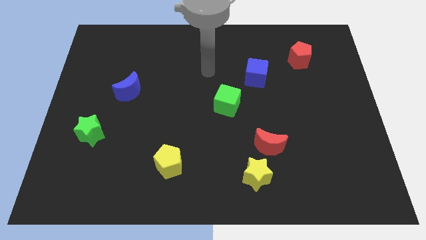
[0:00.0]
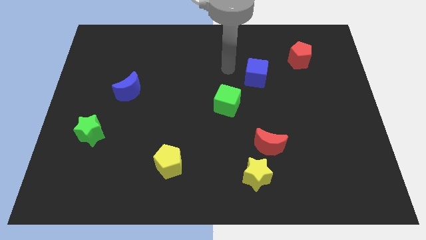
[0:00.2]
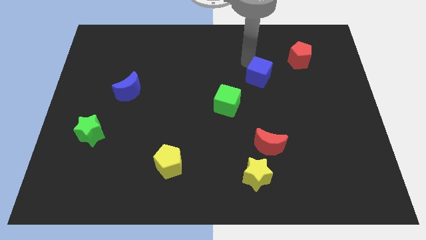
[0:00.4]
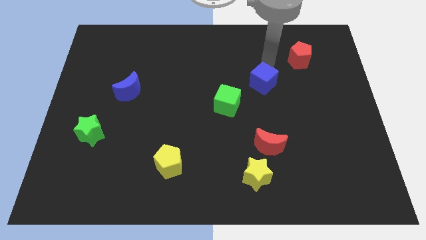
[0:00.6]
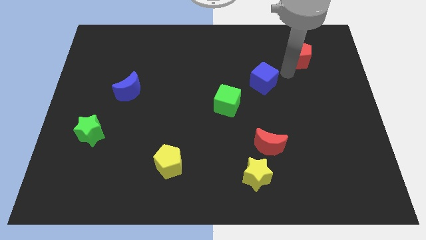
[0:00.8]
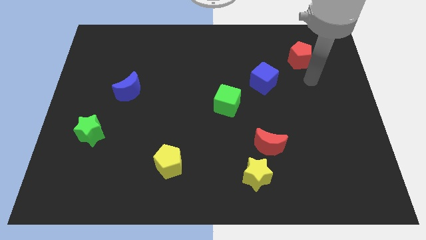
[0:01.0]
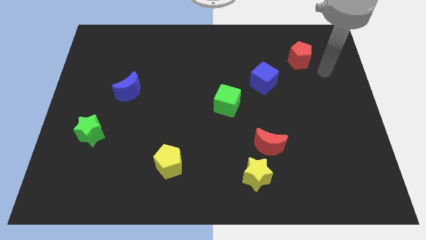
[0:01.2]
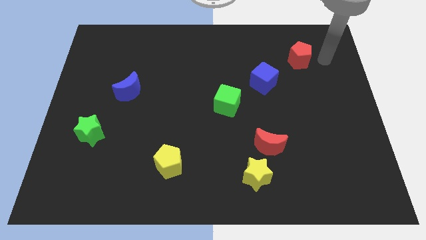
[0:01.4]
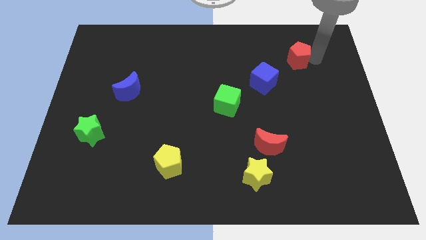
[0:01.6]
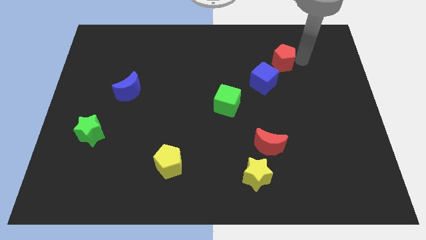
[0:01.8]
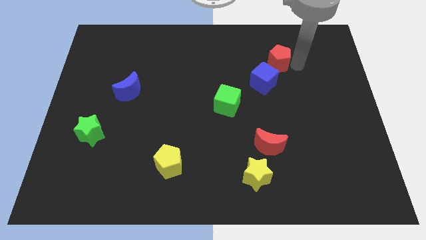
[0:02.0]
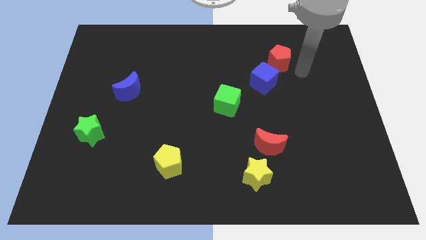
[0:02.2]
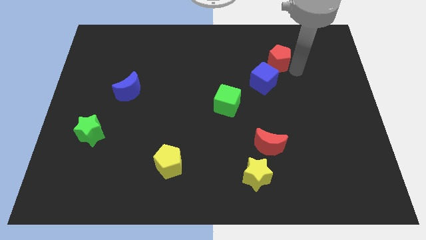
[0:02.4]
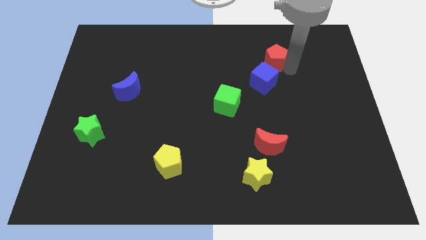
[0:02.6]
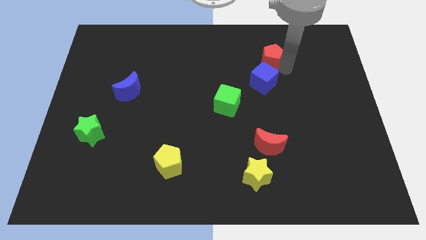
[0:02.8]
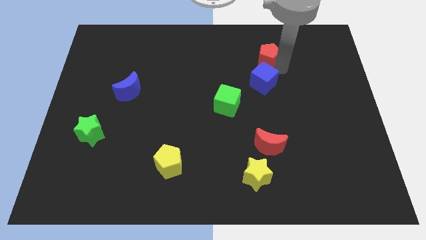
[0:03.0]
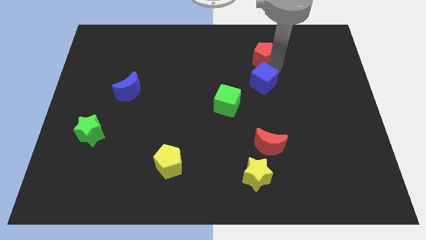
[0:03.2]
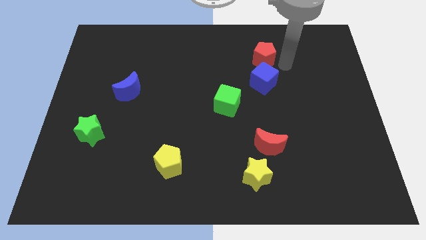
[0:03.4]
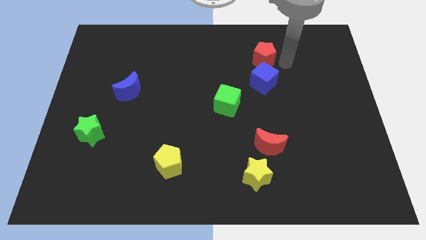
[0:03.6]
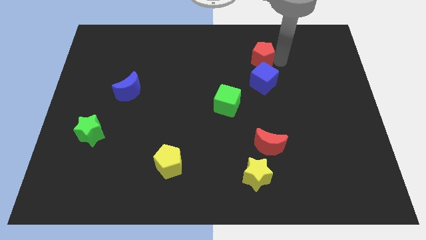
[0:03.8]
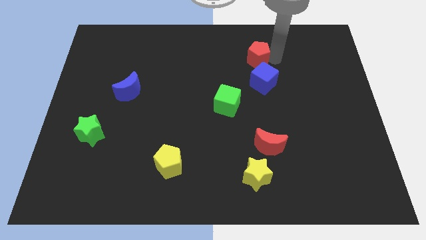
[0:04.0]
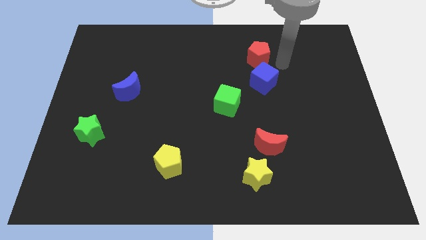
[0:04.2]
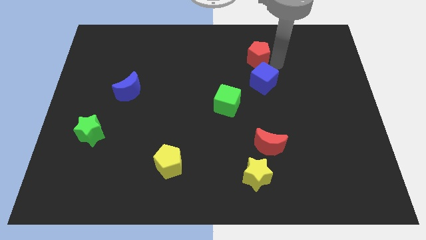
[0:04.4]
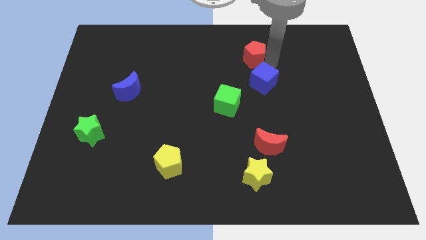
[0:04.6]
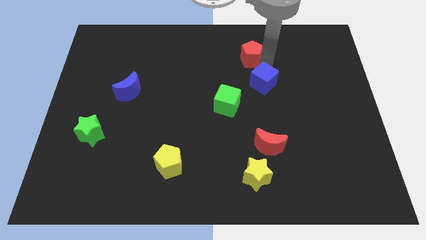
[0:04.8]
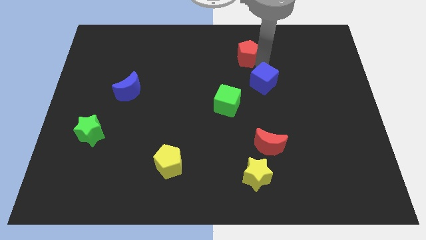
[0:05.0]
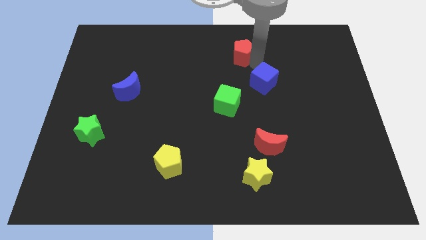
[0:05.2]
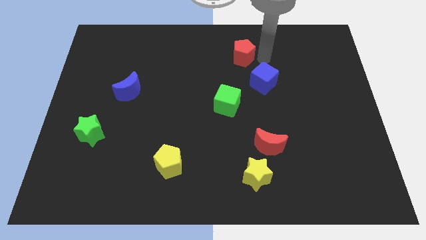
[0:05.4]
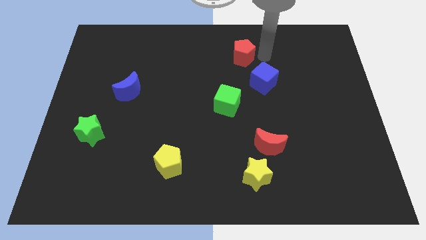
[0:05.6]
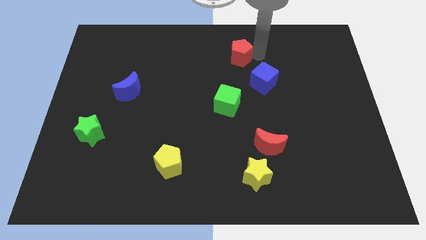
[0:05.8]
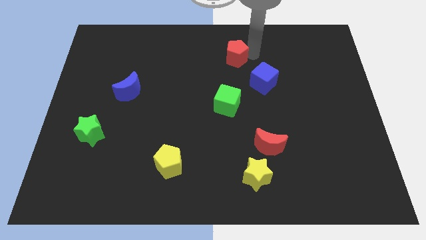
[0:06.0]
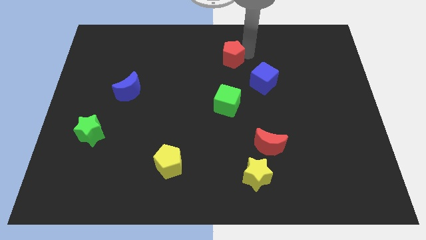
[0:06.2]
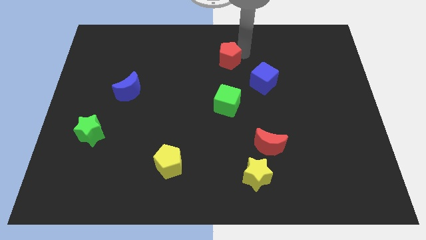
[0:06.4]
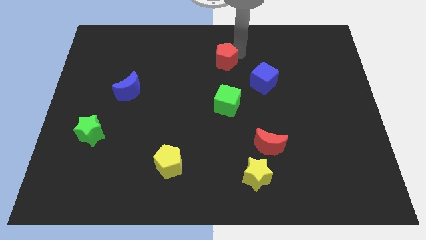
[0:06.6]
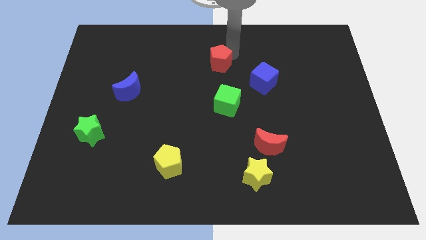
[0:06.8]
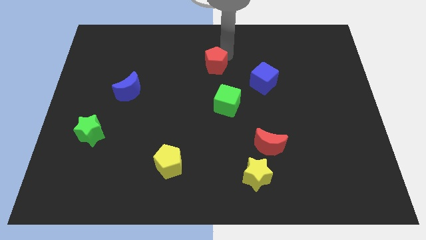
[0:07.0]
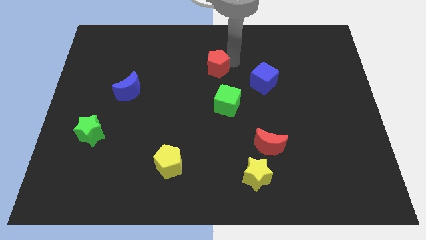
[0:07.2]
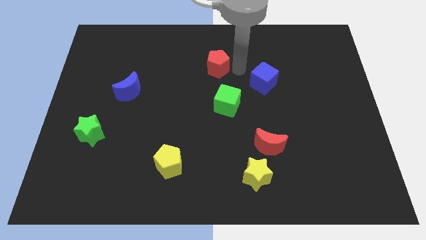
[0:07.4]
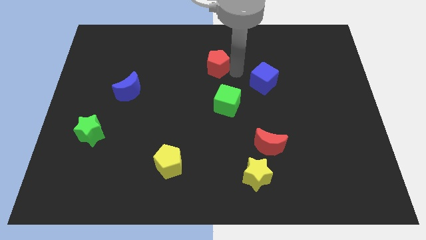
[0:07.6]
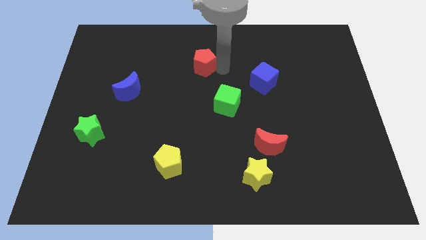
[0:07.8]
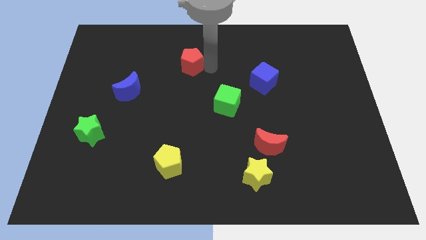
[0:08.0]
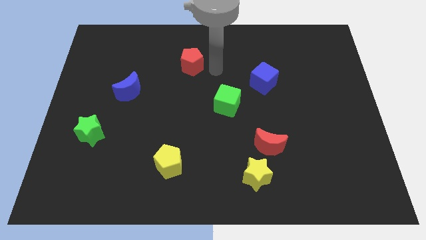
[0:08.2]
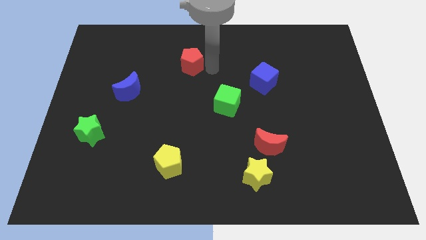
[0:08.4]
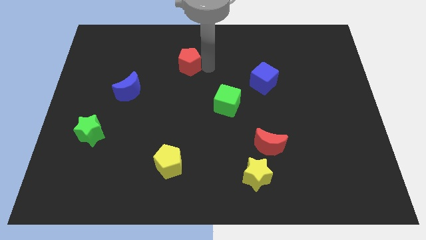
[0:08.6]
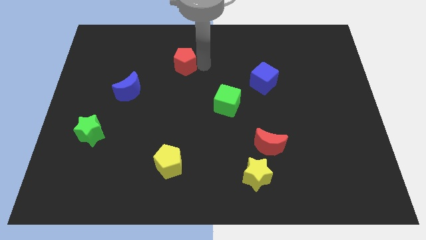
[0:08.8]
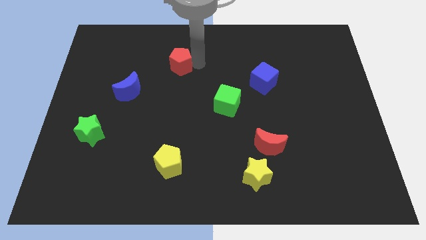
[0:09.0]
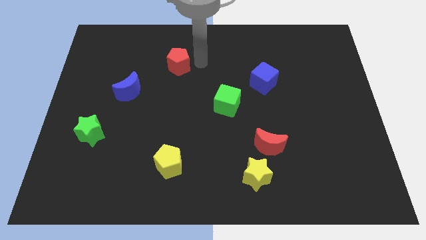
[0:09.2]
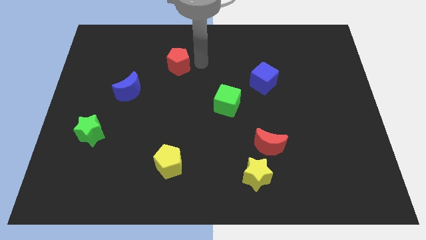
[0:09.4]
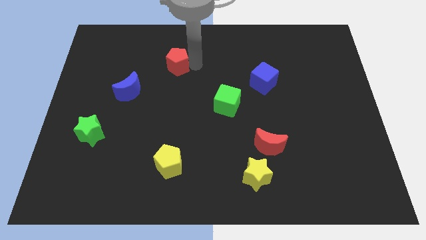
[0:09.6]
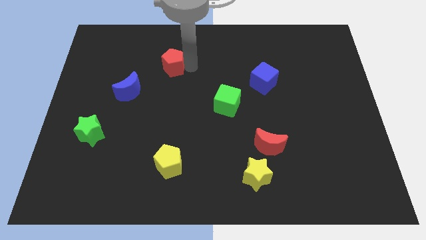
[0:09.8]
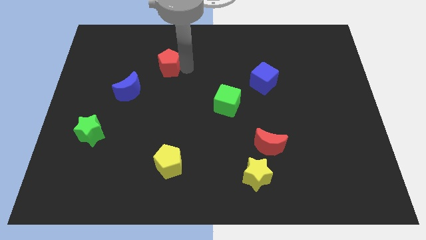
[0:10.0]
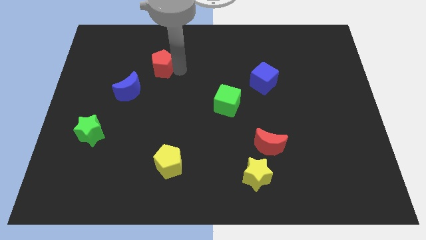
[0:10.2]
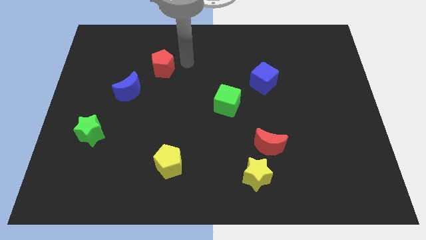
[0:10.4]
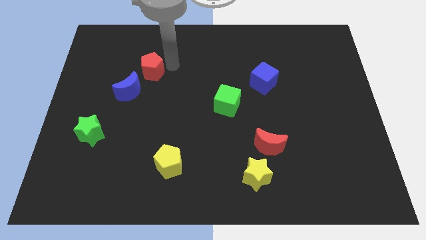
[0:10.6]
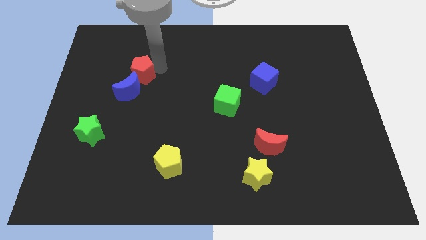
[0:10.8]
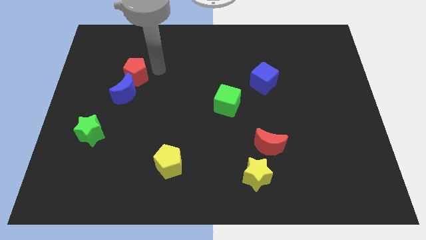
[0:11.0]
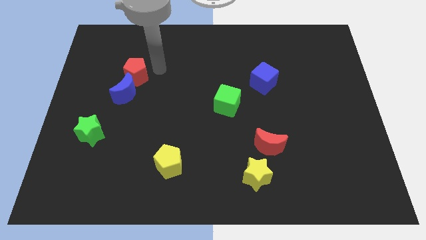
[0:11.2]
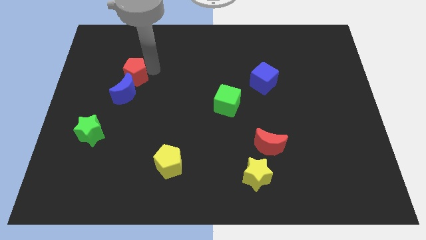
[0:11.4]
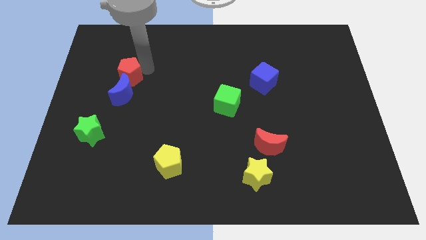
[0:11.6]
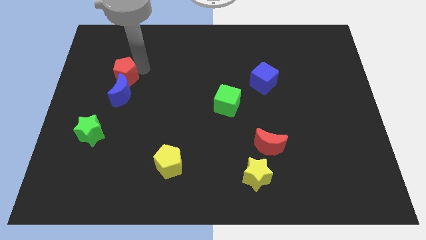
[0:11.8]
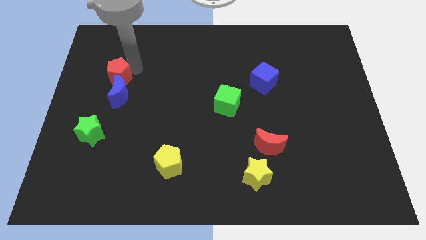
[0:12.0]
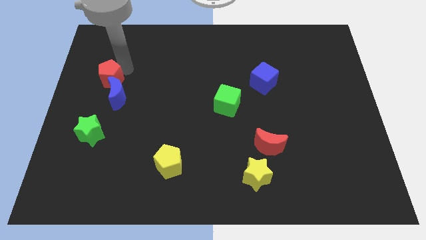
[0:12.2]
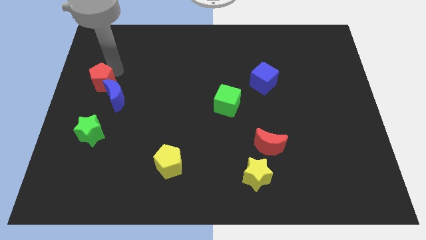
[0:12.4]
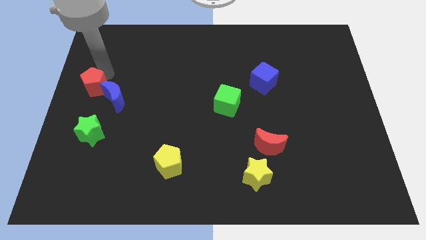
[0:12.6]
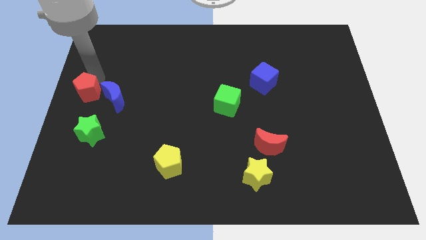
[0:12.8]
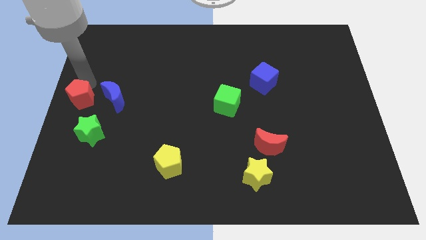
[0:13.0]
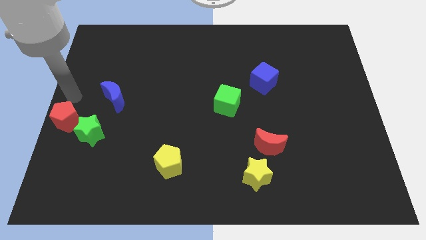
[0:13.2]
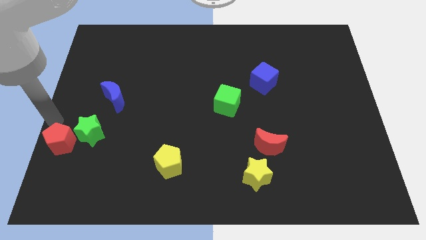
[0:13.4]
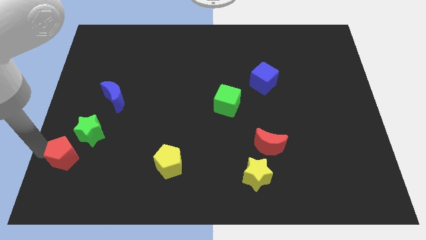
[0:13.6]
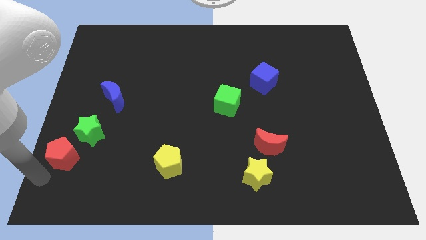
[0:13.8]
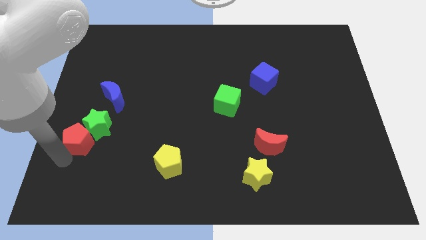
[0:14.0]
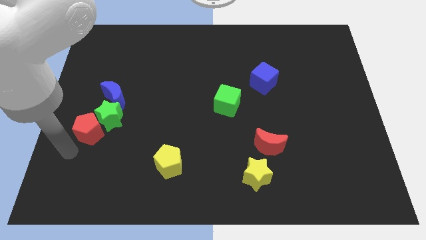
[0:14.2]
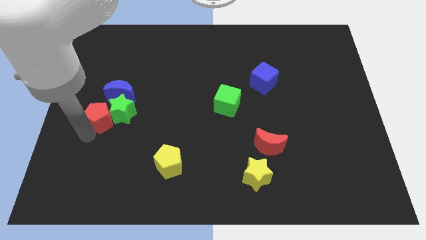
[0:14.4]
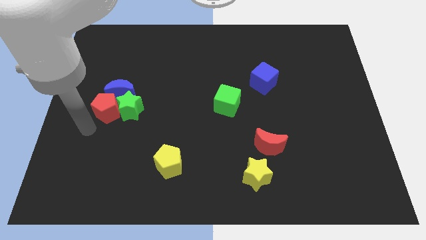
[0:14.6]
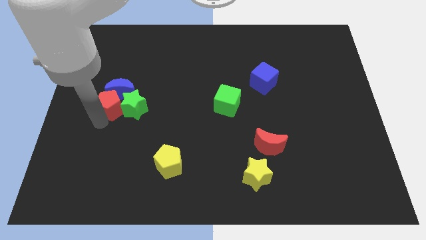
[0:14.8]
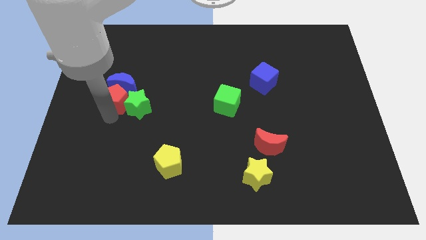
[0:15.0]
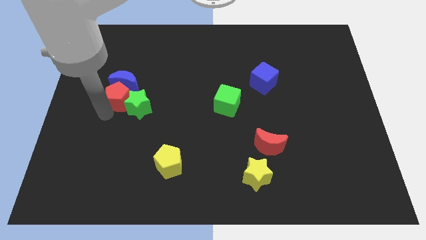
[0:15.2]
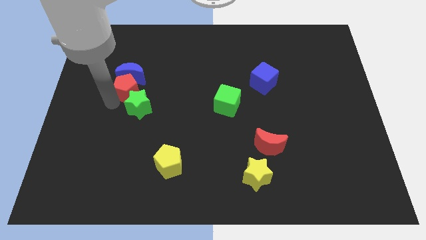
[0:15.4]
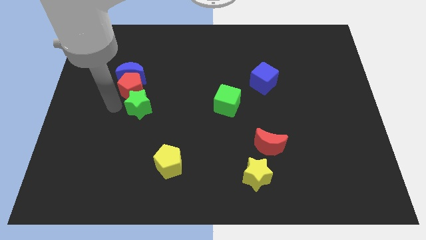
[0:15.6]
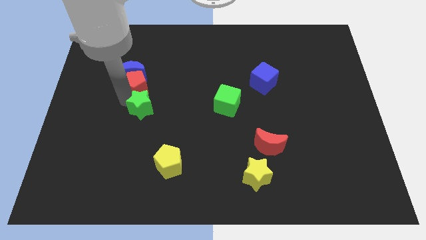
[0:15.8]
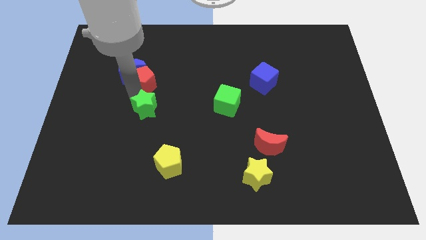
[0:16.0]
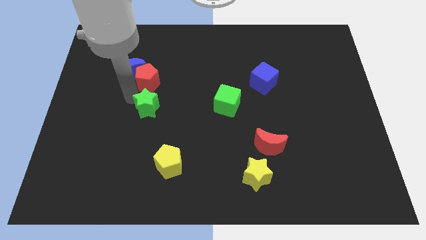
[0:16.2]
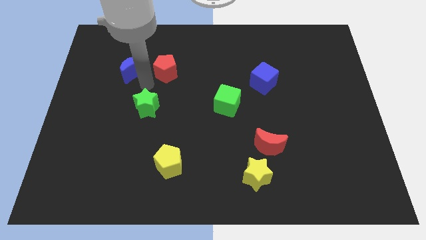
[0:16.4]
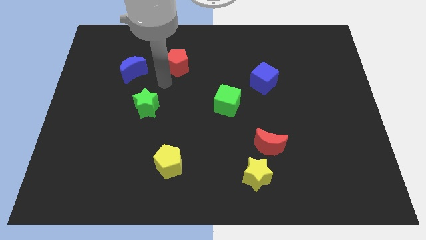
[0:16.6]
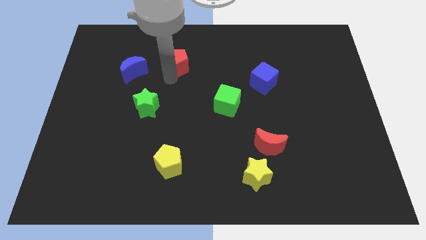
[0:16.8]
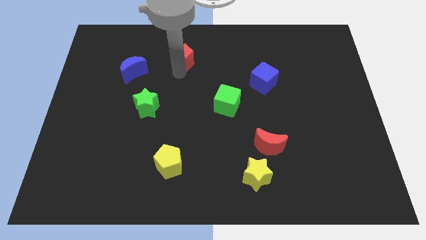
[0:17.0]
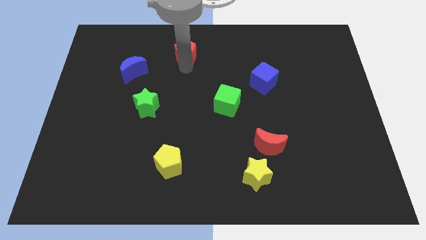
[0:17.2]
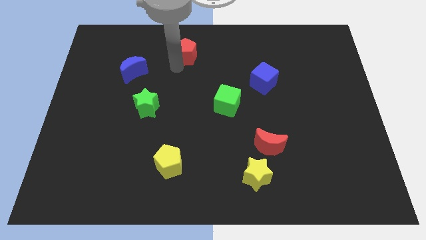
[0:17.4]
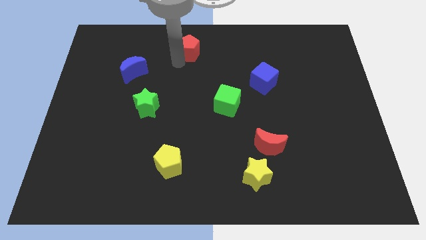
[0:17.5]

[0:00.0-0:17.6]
put the red pentagon to the top
